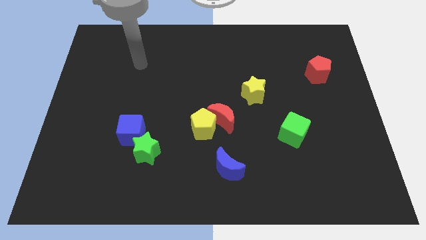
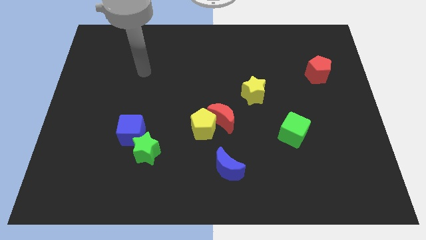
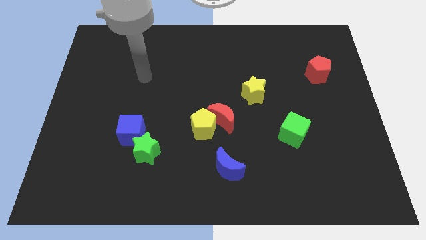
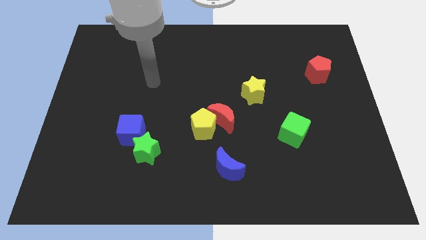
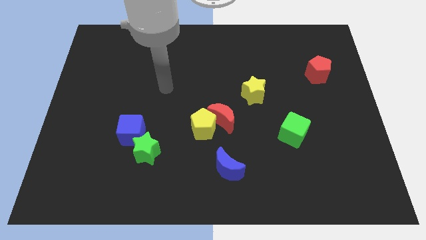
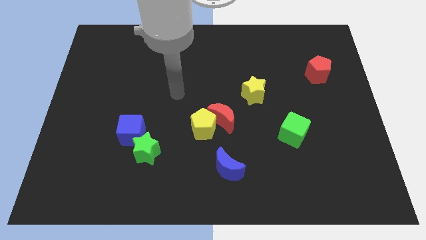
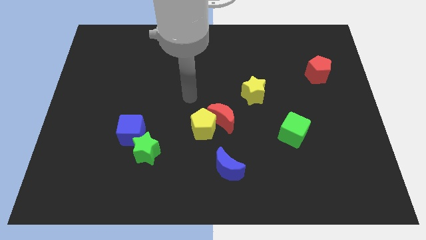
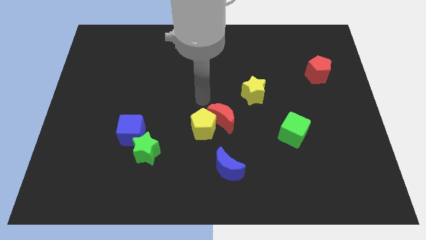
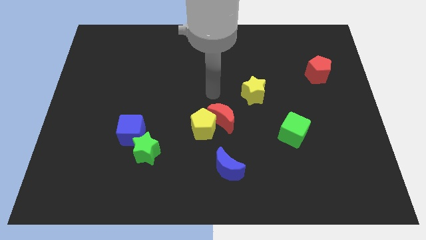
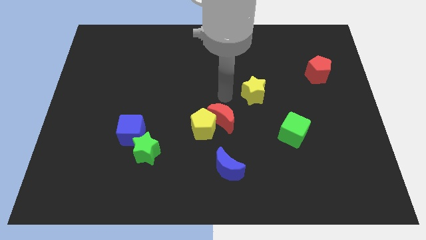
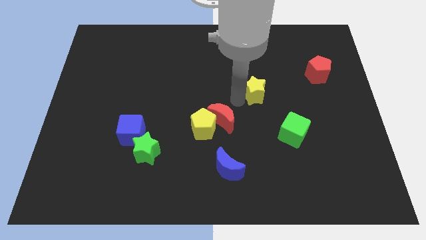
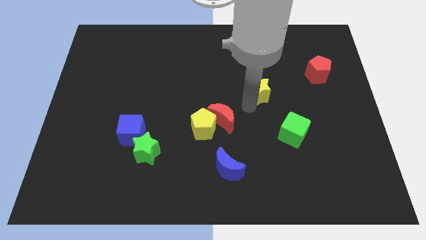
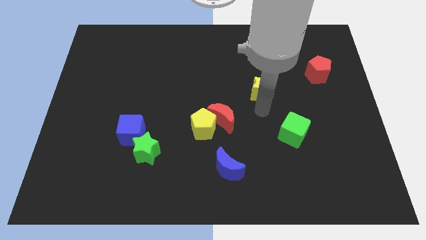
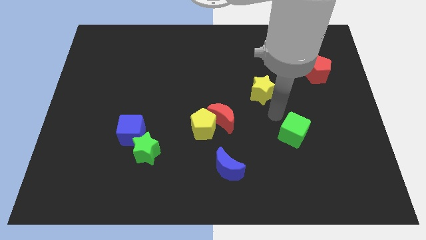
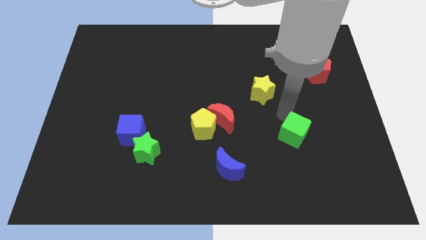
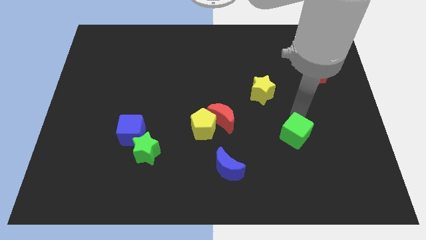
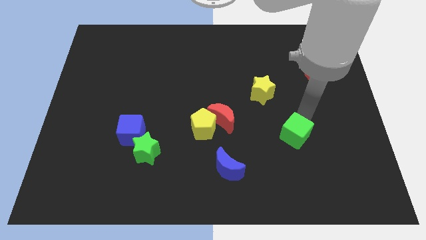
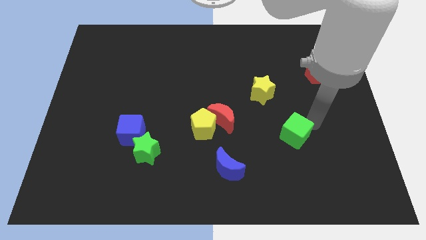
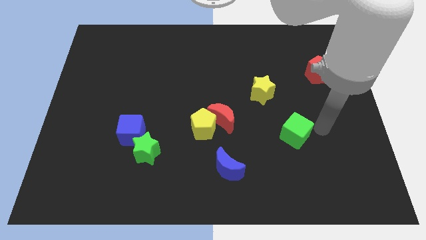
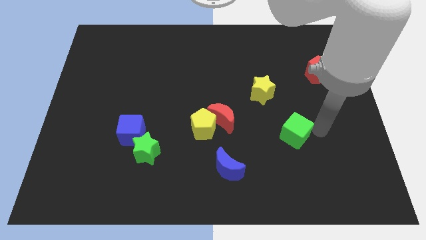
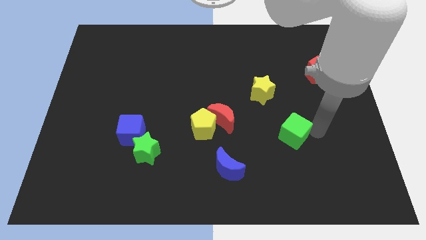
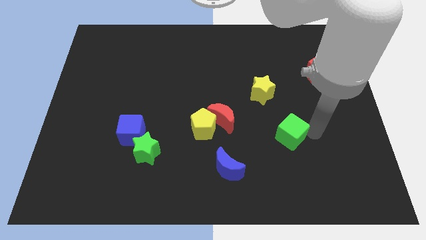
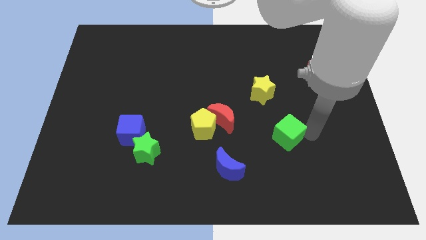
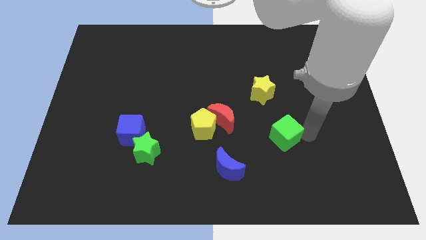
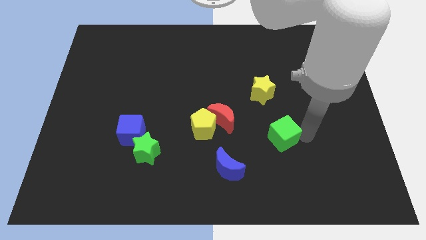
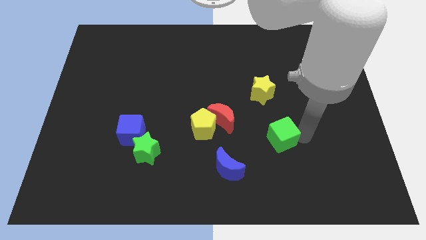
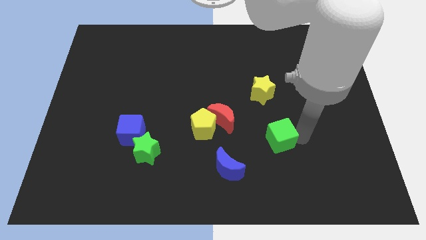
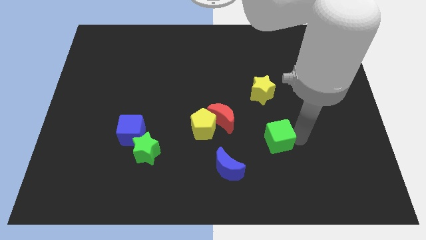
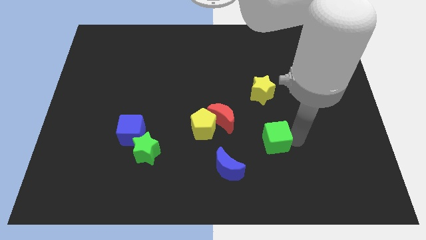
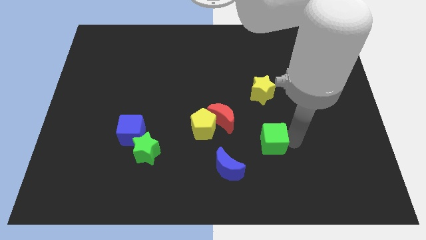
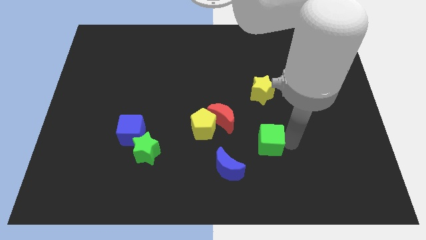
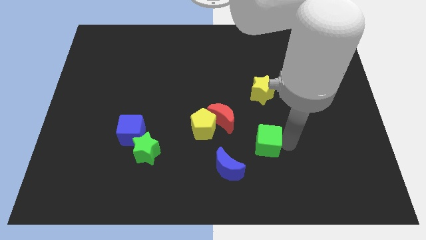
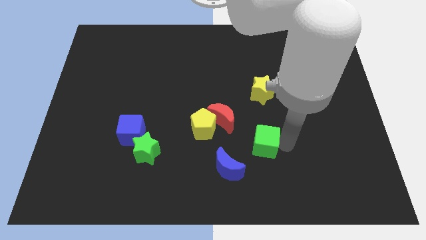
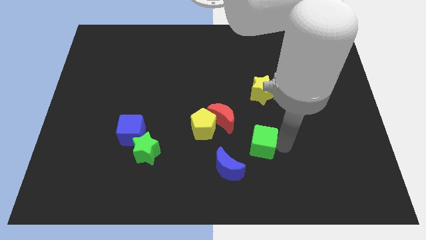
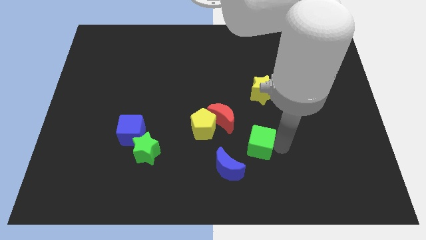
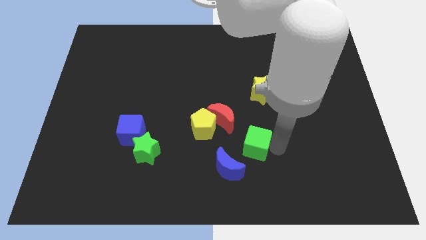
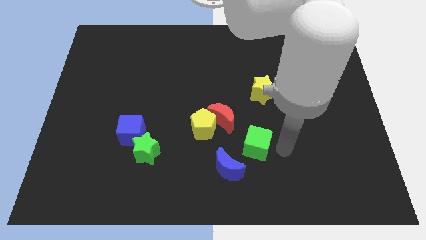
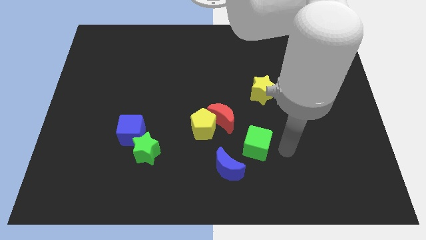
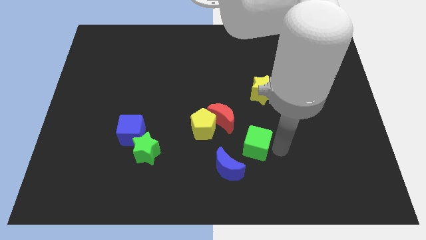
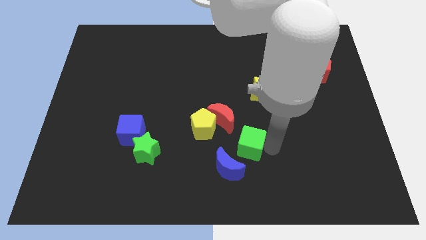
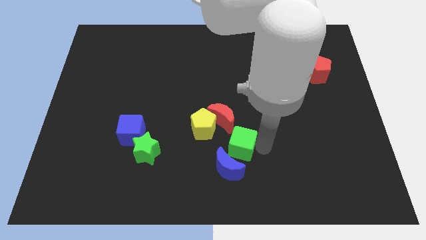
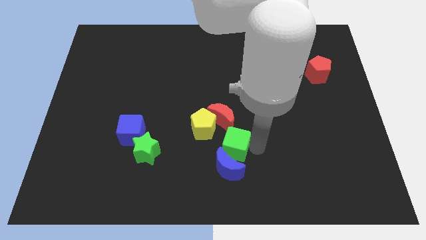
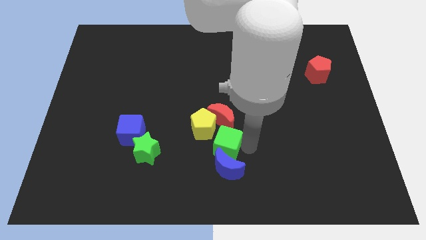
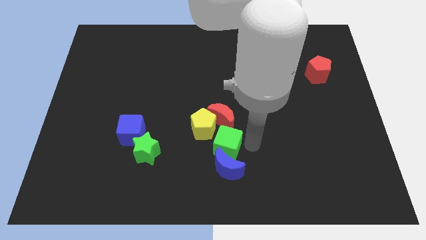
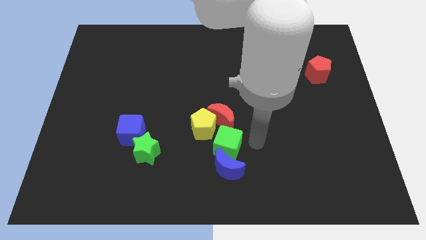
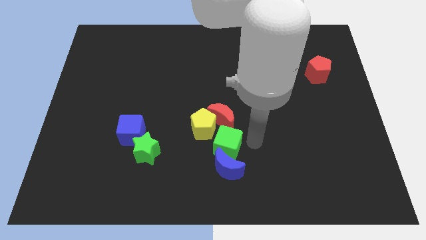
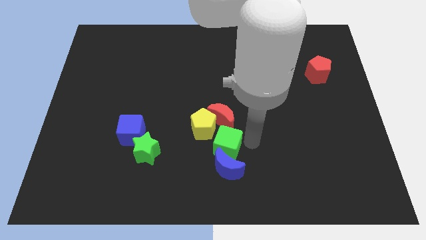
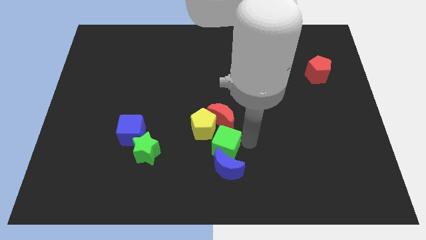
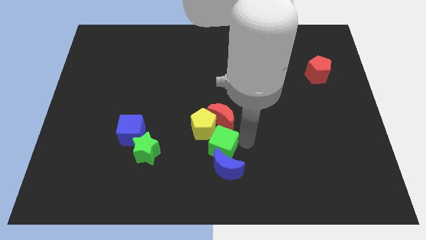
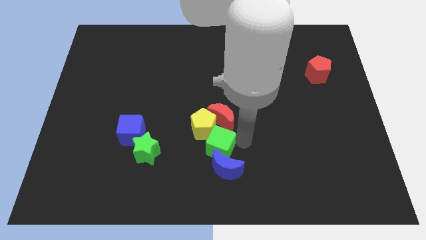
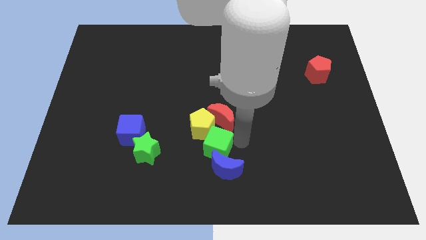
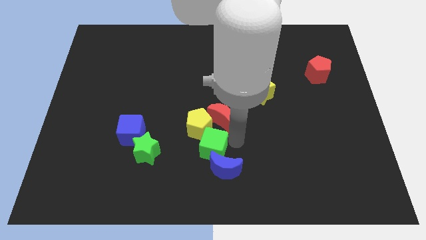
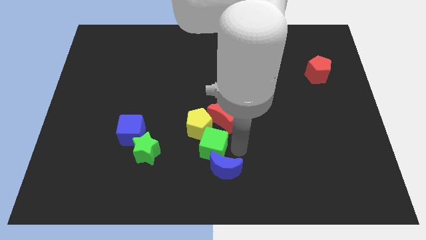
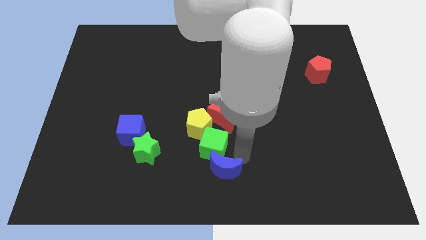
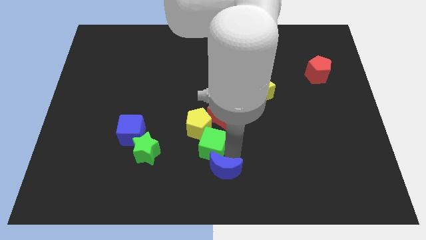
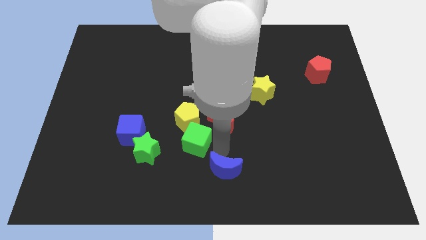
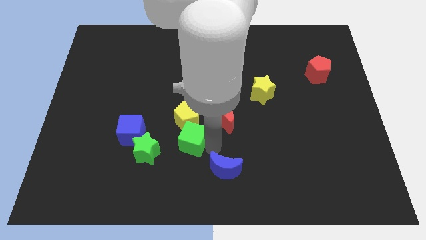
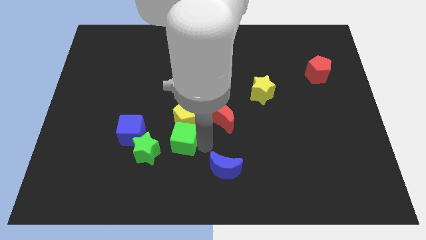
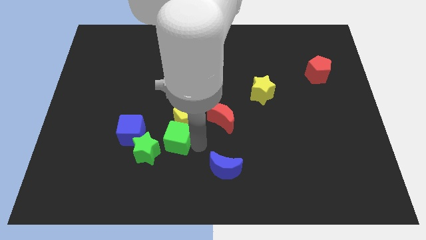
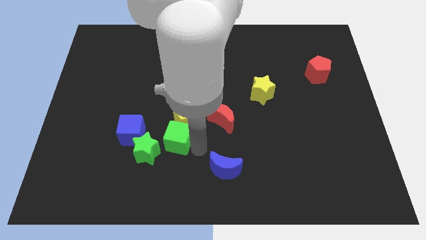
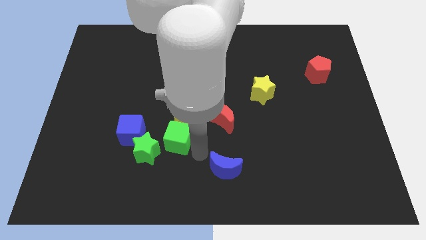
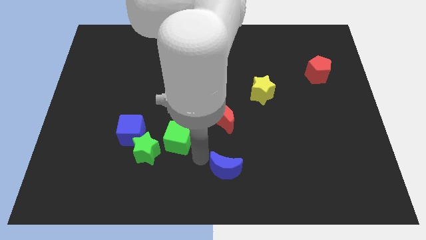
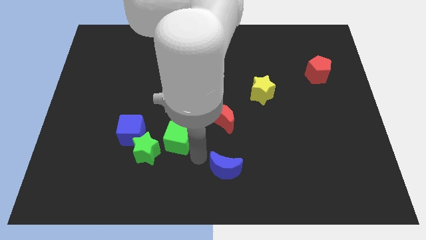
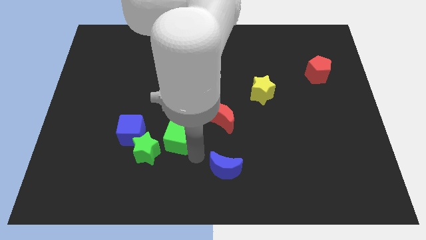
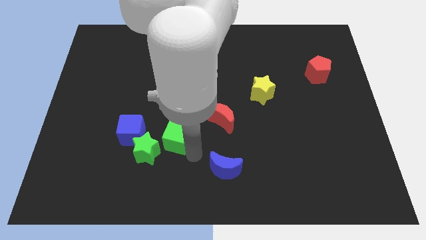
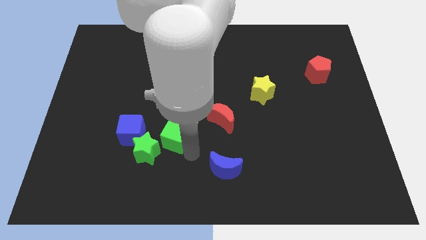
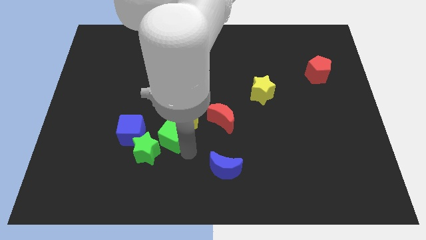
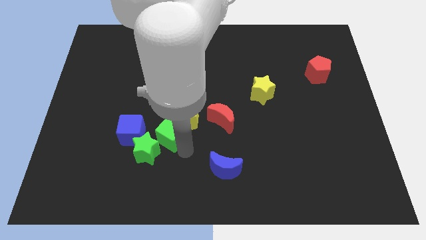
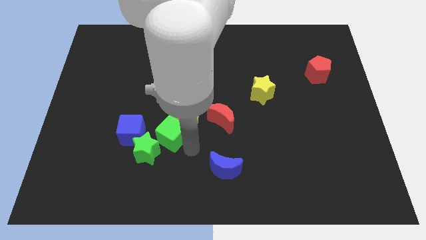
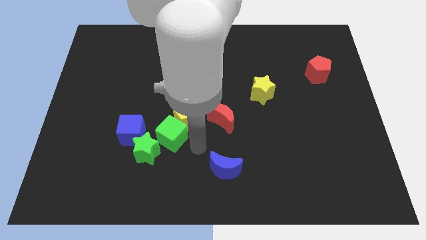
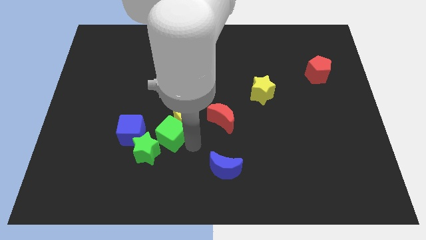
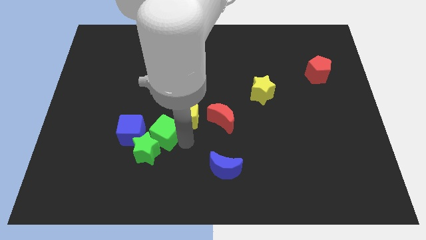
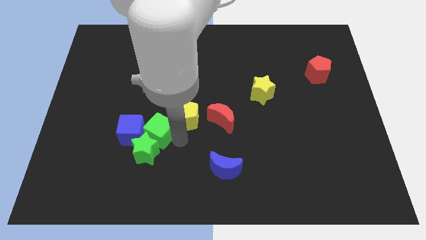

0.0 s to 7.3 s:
move the green cube to the blue cube

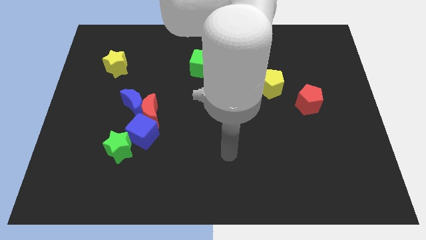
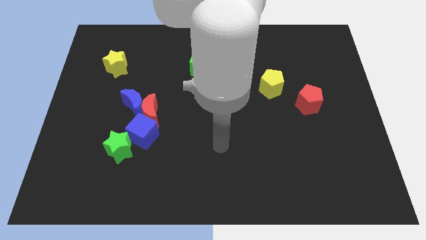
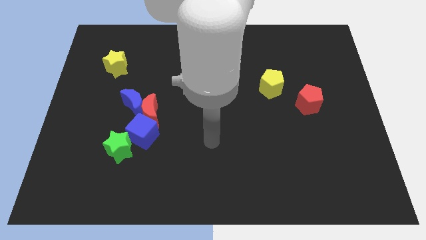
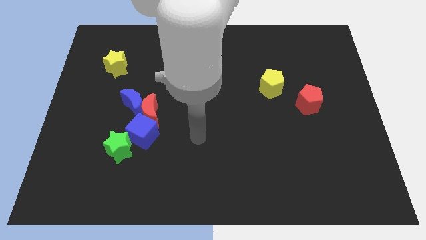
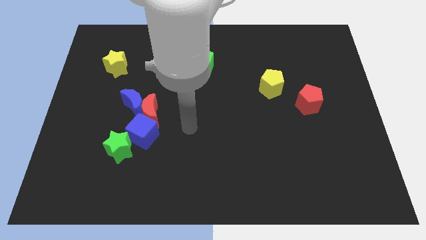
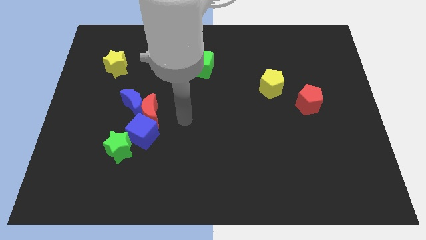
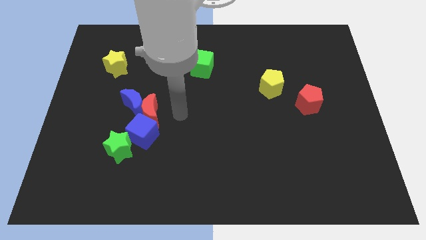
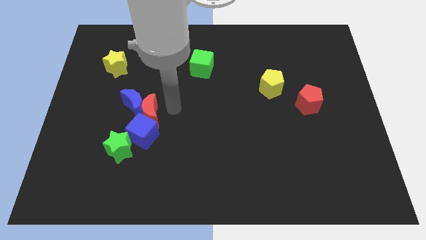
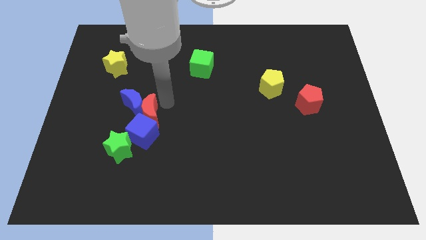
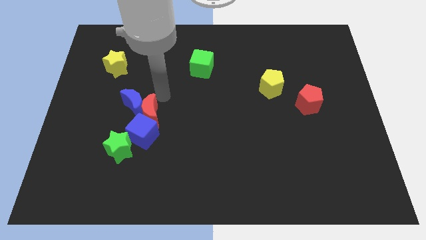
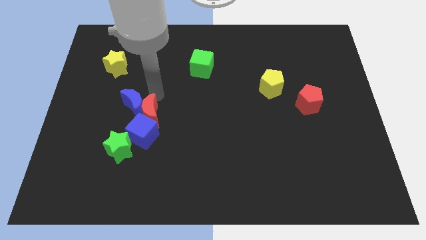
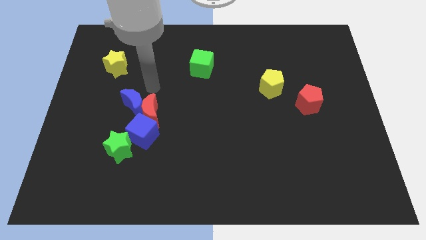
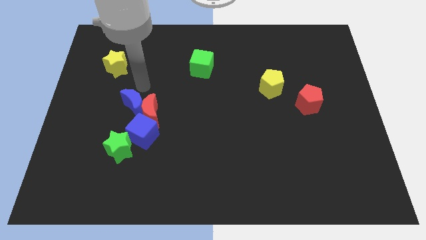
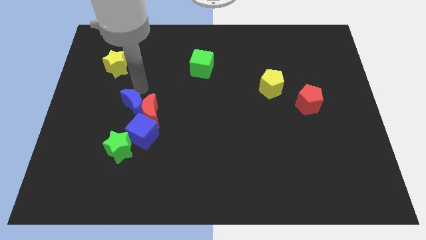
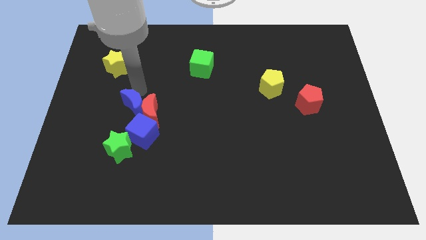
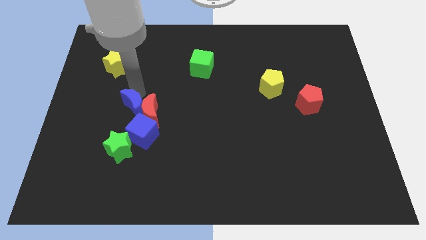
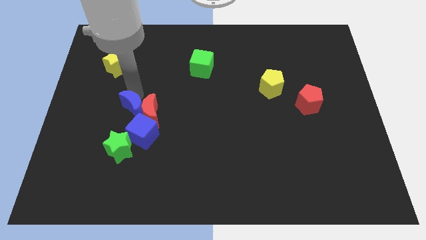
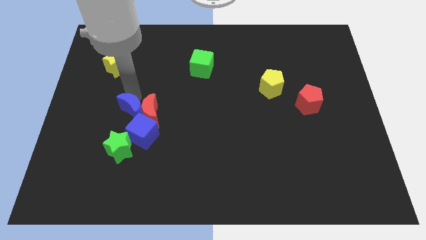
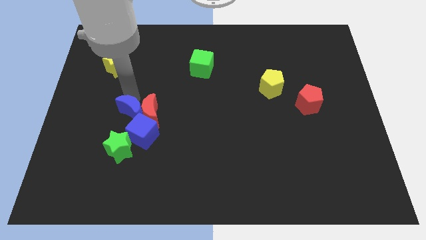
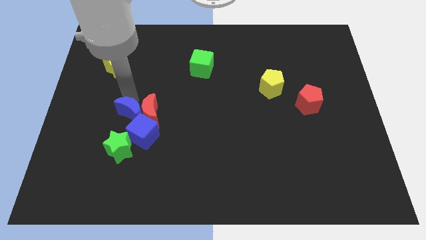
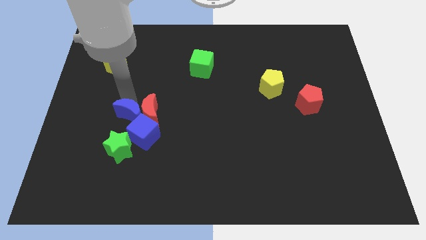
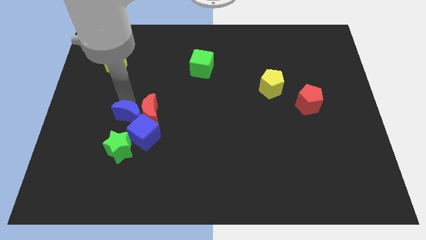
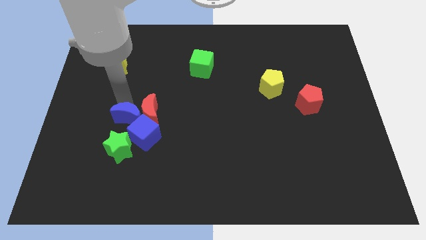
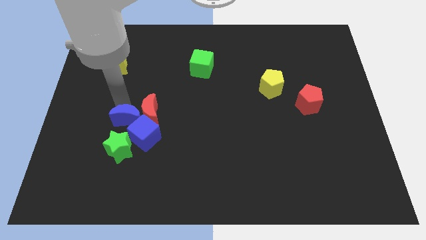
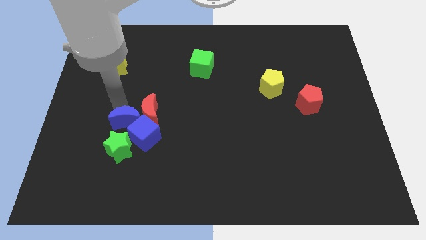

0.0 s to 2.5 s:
push the blue moon close to the blue cube
